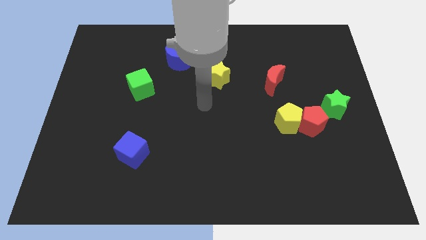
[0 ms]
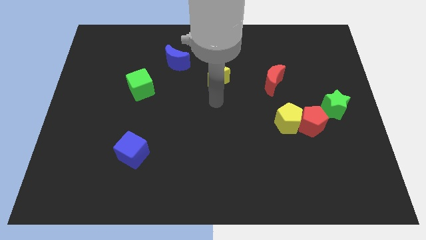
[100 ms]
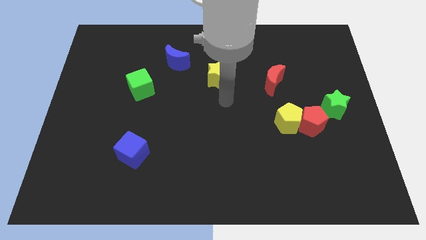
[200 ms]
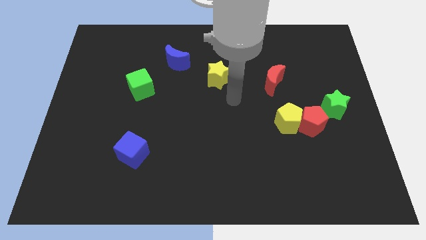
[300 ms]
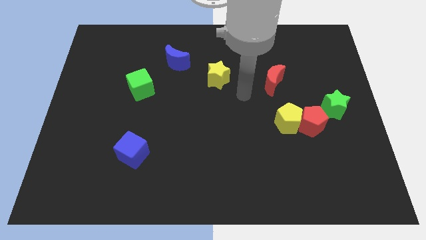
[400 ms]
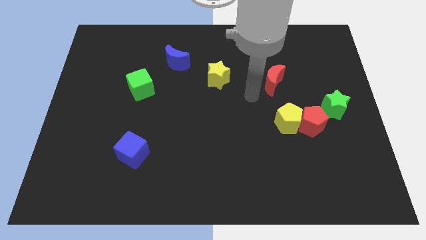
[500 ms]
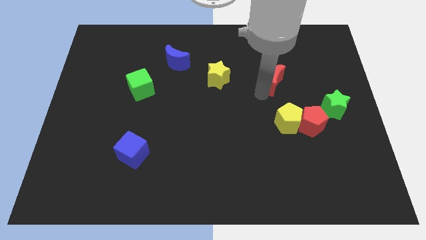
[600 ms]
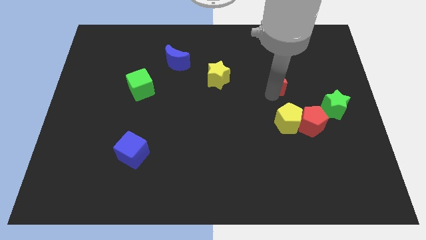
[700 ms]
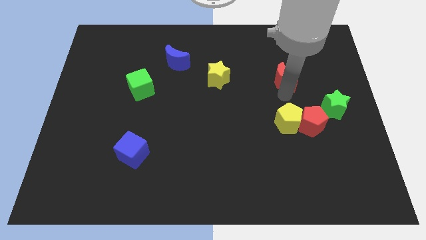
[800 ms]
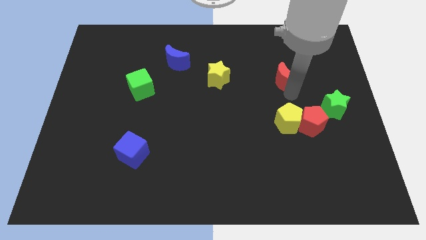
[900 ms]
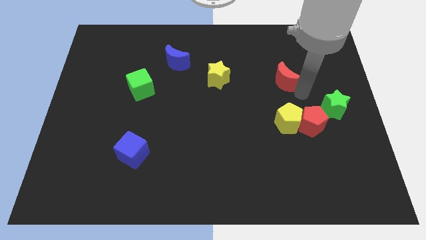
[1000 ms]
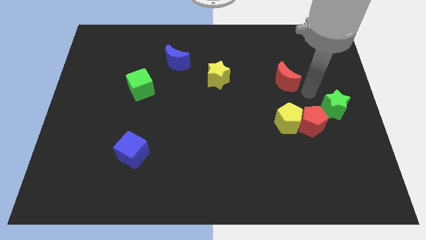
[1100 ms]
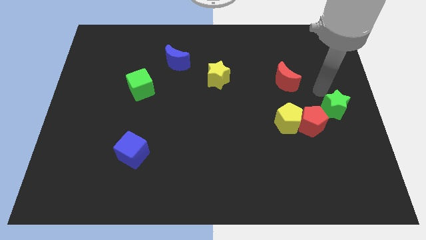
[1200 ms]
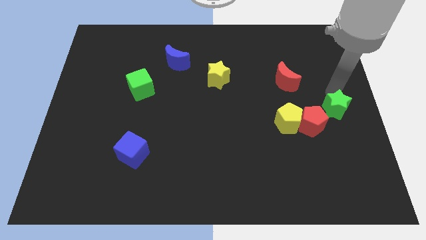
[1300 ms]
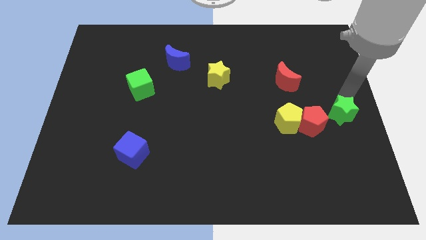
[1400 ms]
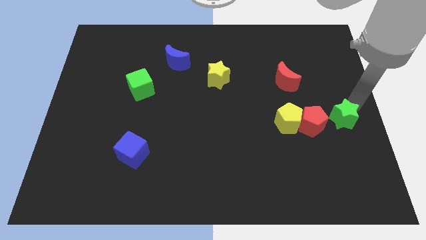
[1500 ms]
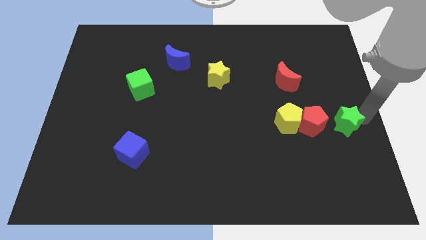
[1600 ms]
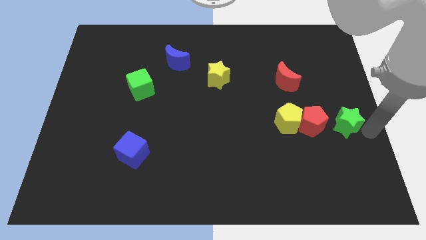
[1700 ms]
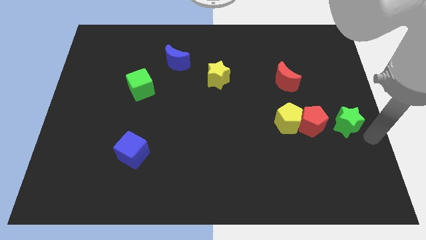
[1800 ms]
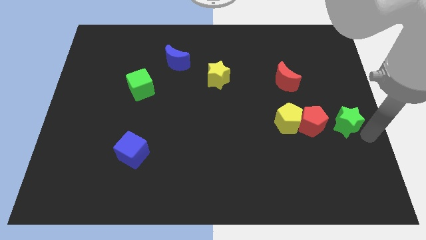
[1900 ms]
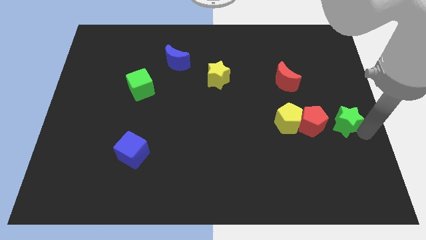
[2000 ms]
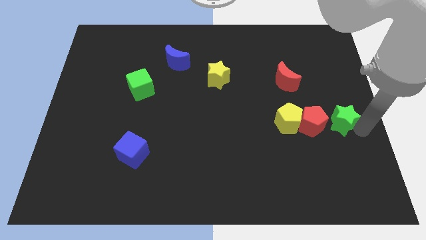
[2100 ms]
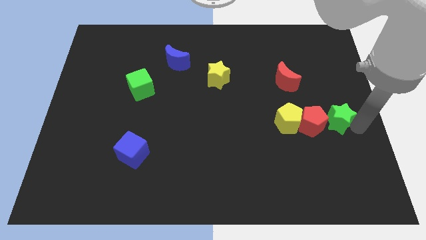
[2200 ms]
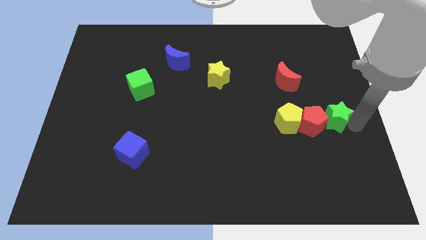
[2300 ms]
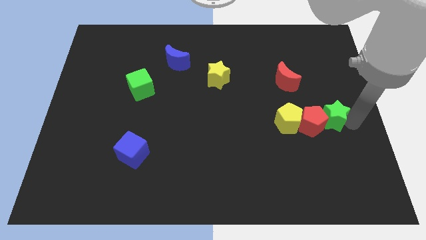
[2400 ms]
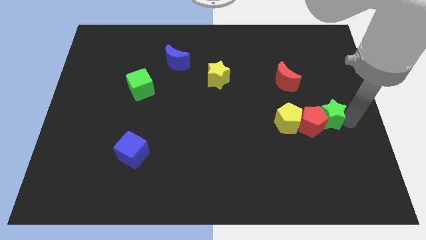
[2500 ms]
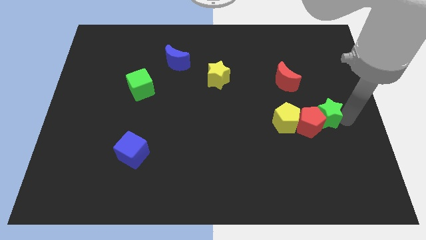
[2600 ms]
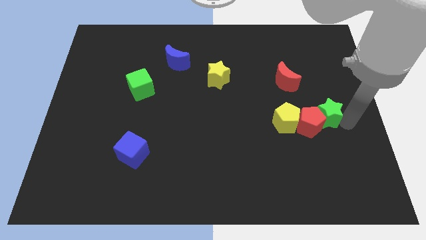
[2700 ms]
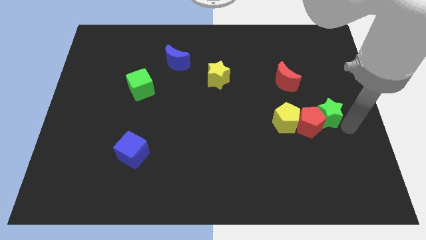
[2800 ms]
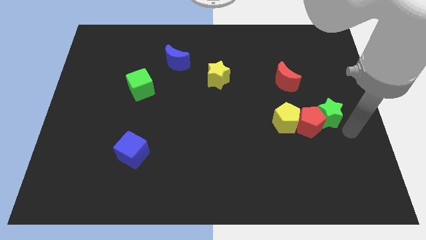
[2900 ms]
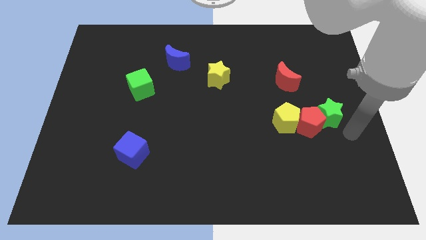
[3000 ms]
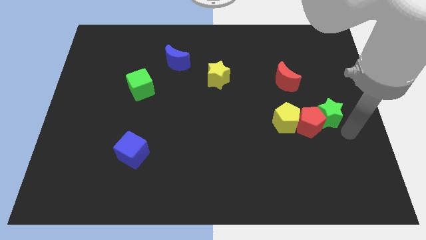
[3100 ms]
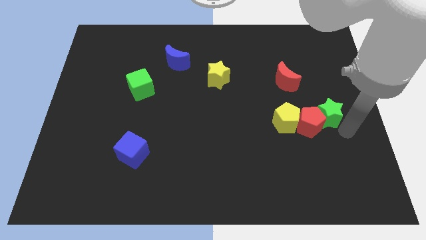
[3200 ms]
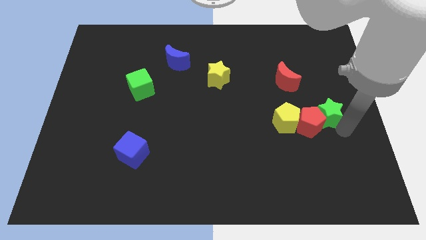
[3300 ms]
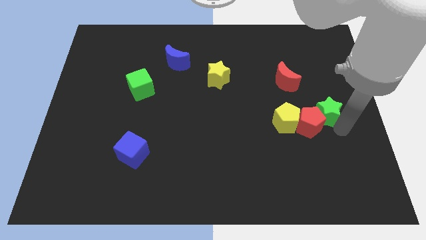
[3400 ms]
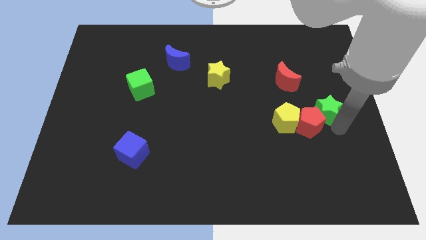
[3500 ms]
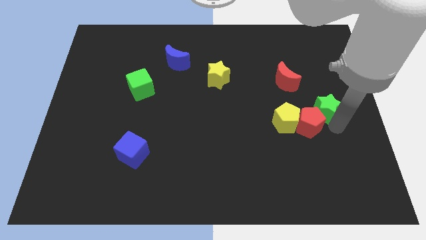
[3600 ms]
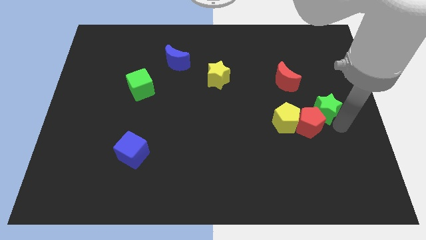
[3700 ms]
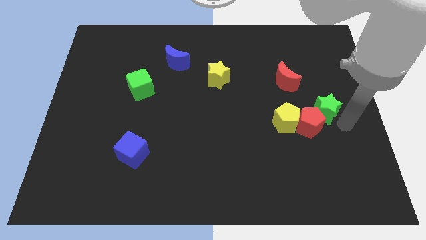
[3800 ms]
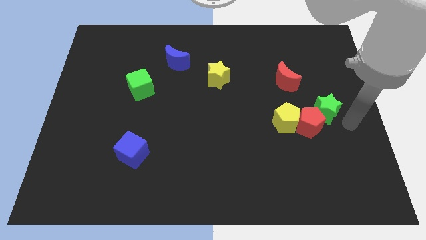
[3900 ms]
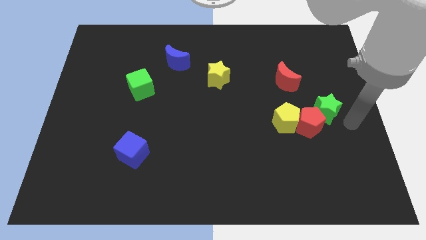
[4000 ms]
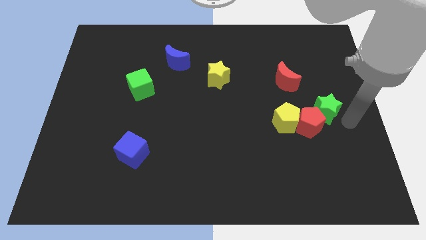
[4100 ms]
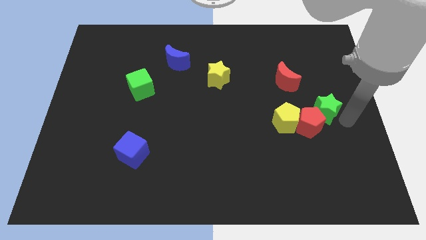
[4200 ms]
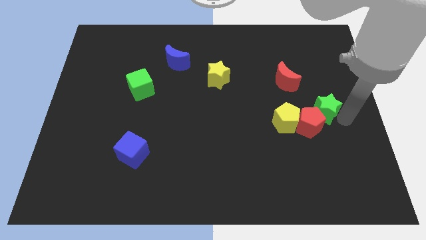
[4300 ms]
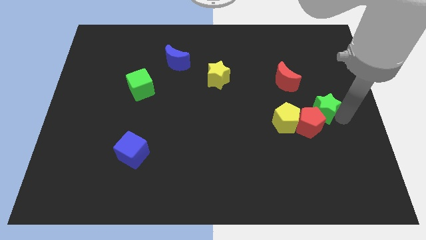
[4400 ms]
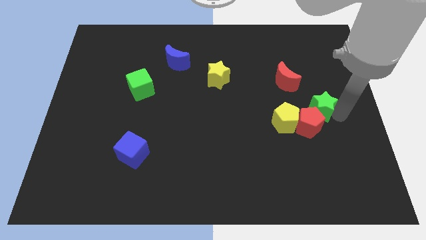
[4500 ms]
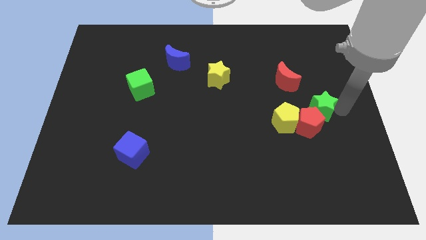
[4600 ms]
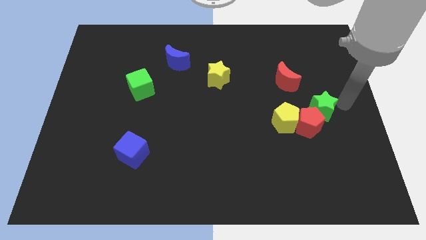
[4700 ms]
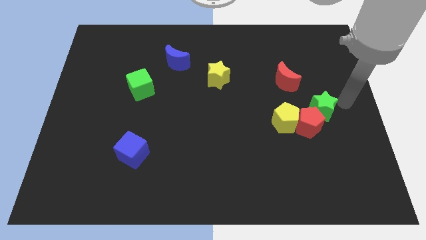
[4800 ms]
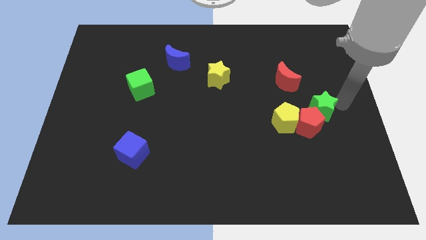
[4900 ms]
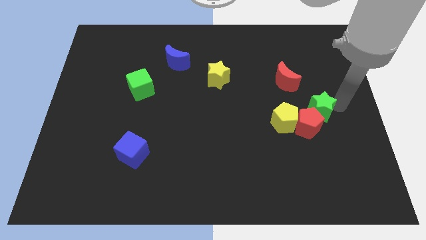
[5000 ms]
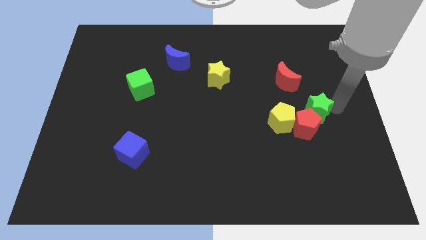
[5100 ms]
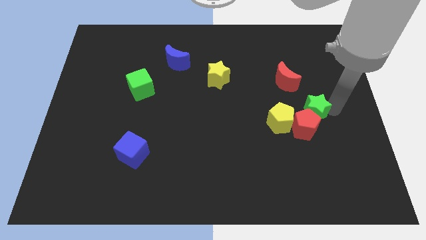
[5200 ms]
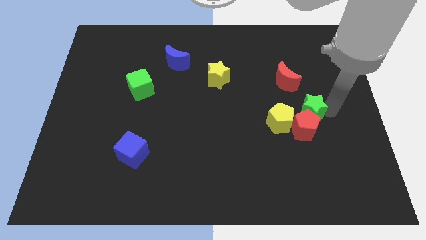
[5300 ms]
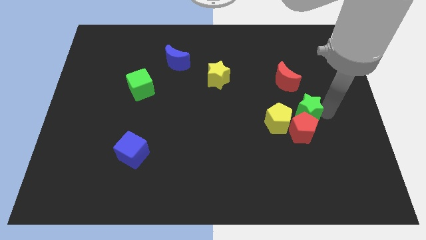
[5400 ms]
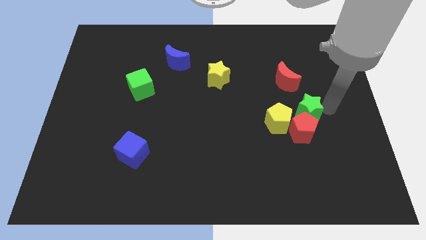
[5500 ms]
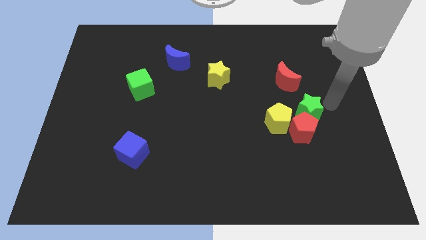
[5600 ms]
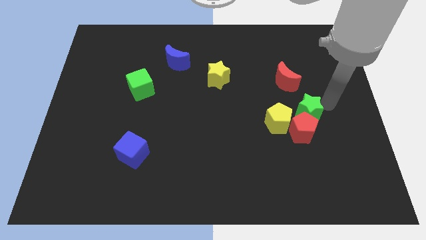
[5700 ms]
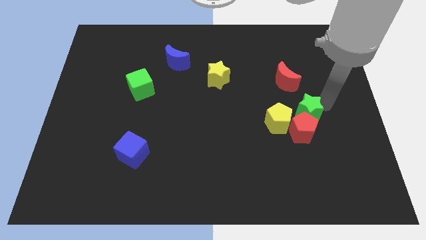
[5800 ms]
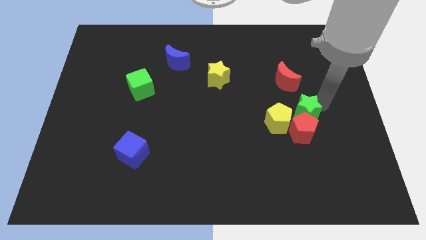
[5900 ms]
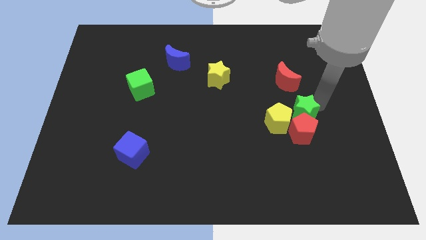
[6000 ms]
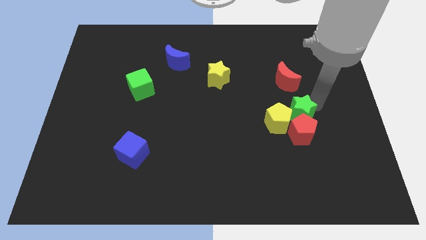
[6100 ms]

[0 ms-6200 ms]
move the green star close to the yellow pentagon

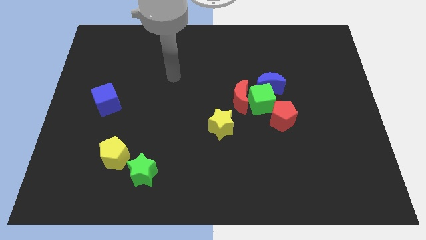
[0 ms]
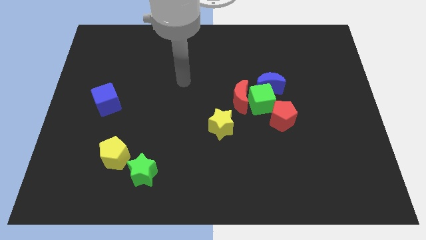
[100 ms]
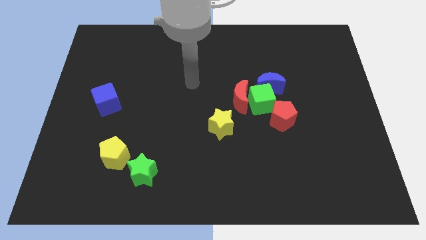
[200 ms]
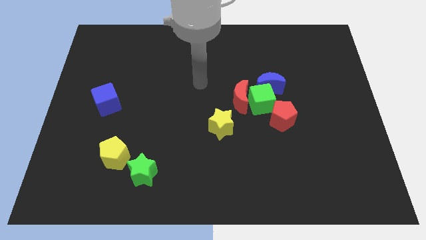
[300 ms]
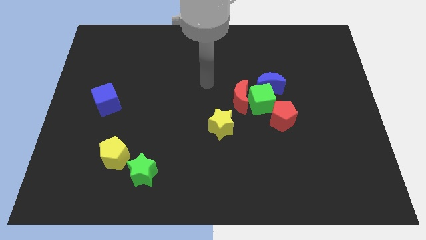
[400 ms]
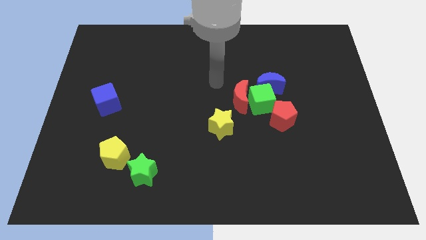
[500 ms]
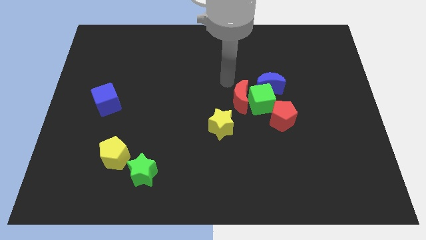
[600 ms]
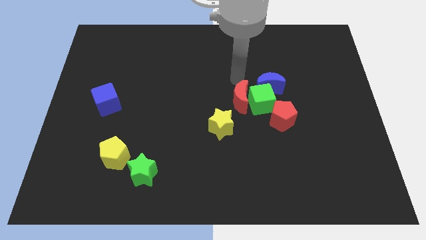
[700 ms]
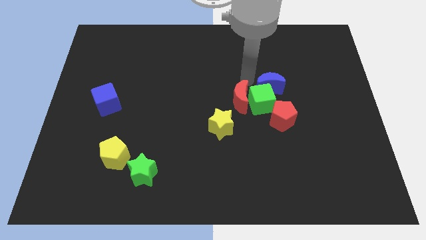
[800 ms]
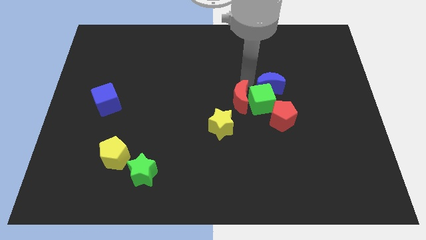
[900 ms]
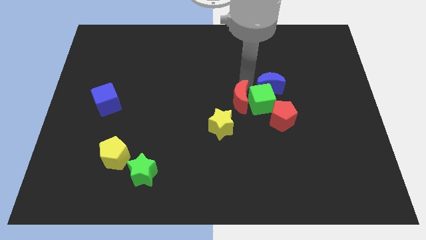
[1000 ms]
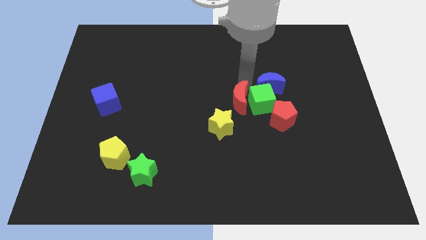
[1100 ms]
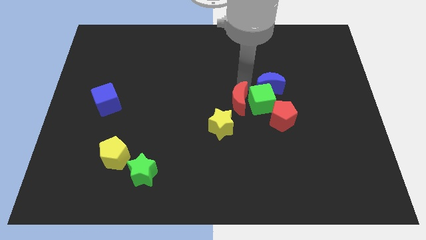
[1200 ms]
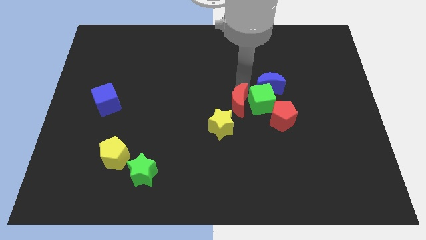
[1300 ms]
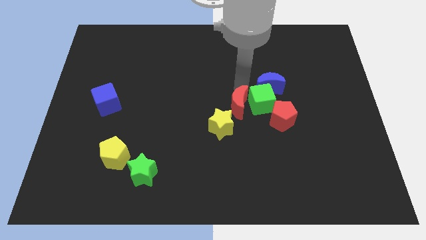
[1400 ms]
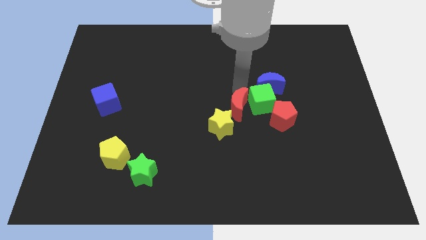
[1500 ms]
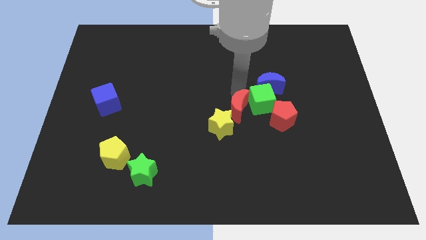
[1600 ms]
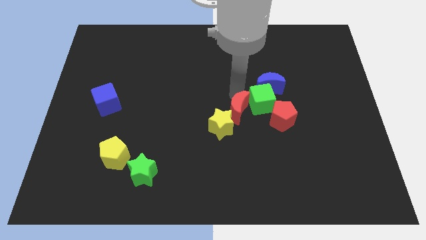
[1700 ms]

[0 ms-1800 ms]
push the red moon towards the yellow star
